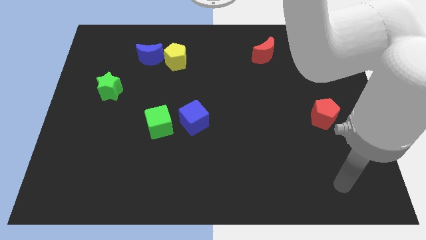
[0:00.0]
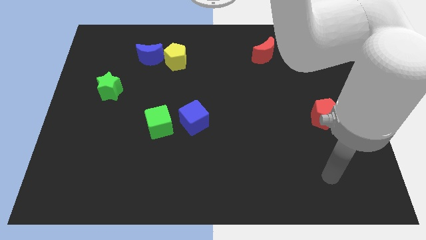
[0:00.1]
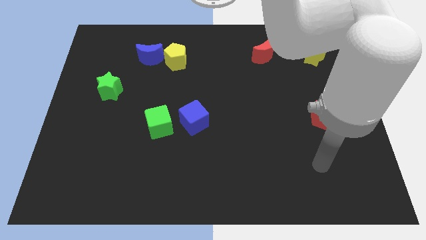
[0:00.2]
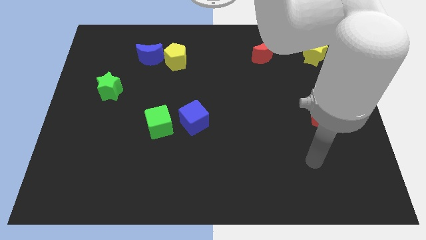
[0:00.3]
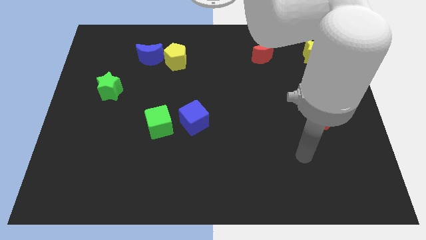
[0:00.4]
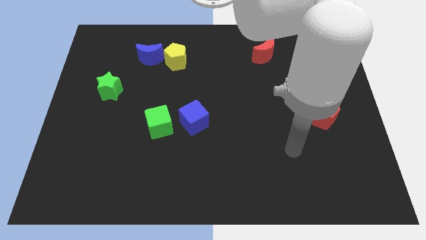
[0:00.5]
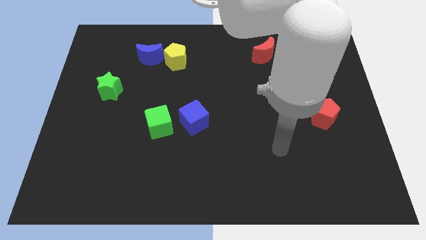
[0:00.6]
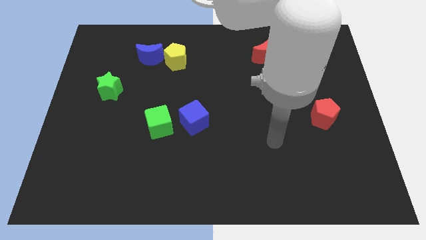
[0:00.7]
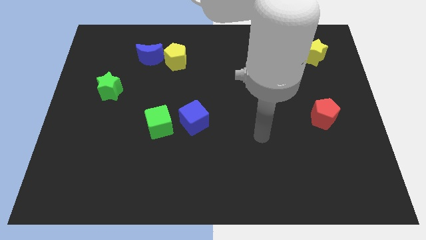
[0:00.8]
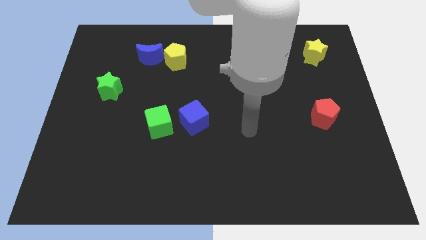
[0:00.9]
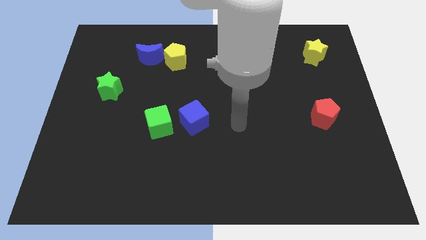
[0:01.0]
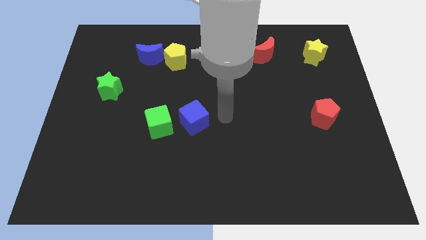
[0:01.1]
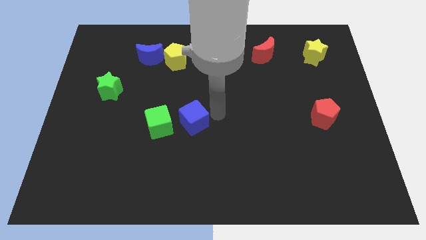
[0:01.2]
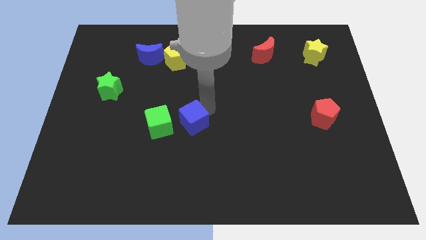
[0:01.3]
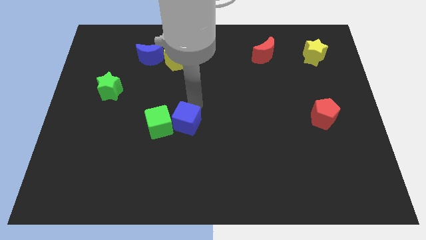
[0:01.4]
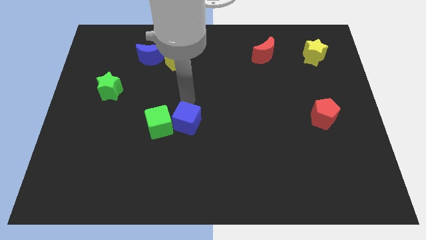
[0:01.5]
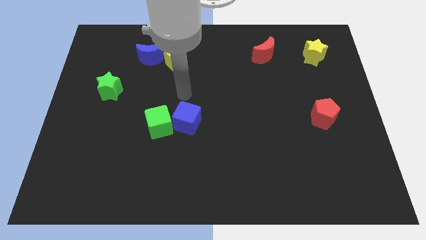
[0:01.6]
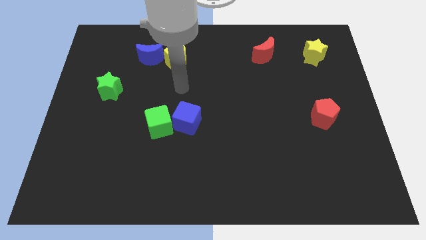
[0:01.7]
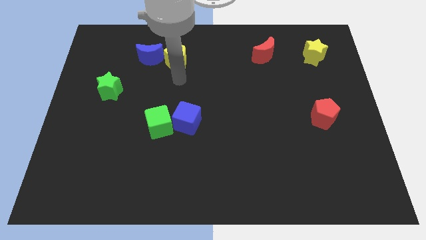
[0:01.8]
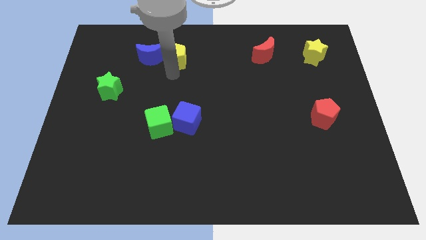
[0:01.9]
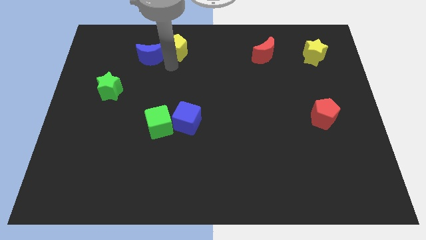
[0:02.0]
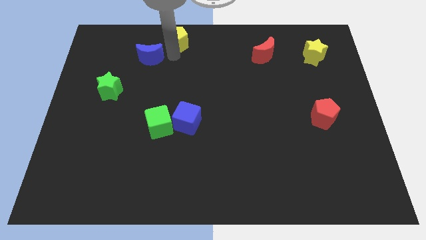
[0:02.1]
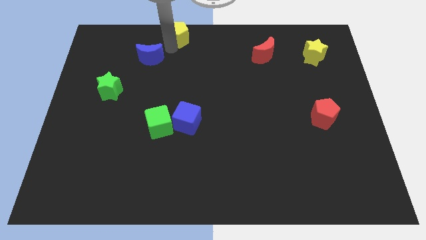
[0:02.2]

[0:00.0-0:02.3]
separate the blue moon from the yellow pentagon

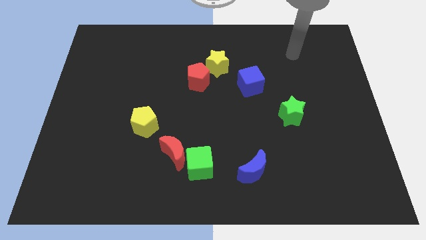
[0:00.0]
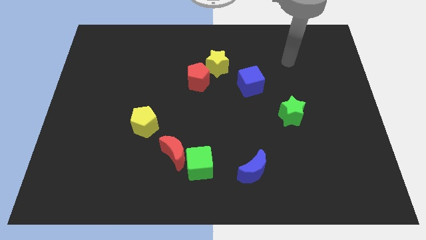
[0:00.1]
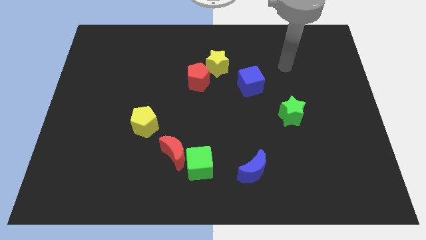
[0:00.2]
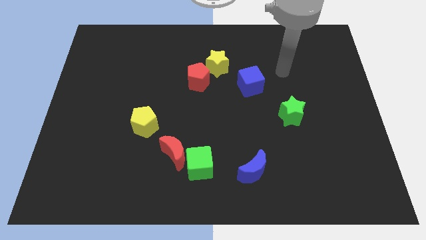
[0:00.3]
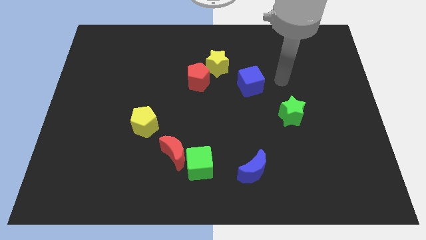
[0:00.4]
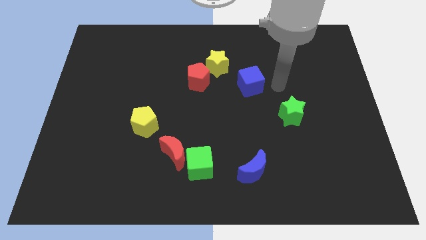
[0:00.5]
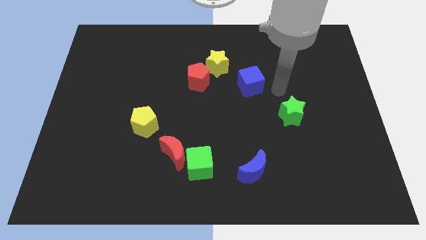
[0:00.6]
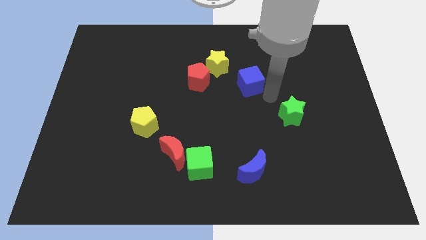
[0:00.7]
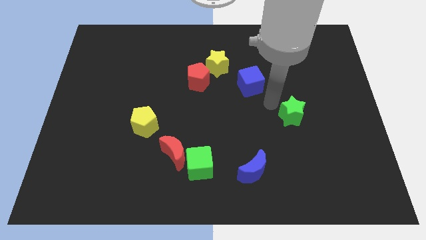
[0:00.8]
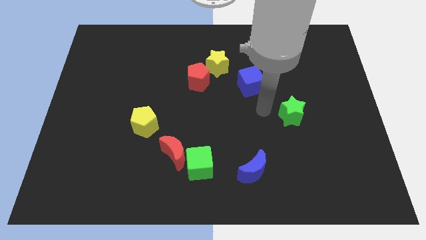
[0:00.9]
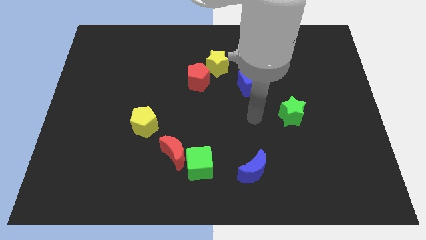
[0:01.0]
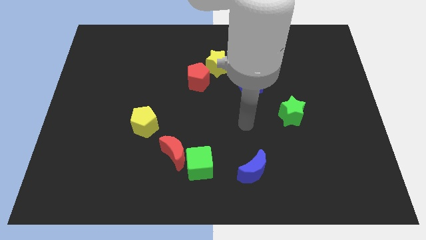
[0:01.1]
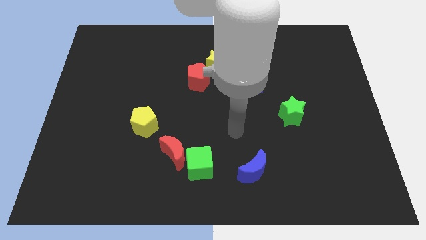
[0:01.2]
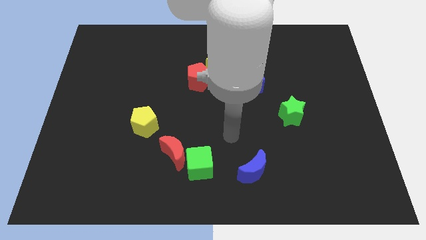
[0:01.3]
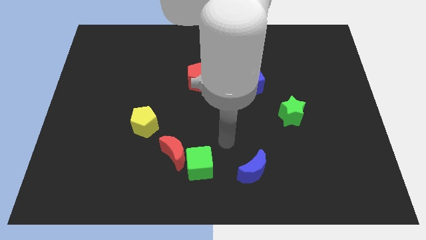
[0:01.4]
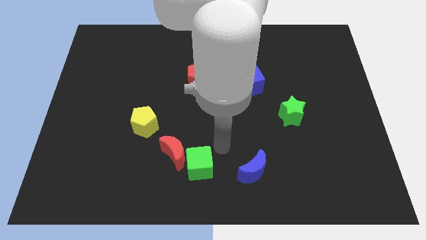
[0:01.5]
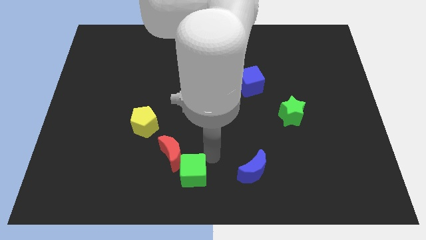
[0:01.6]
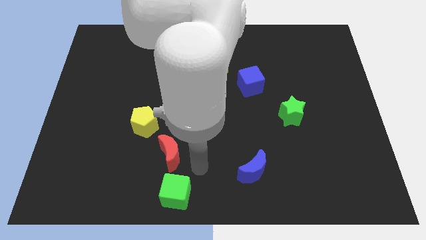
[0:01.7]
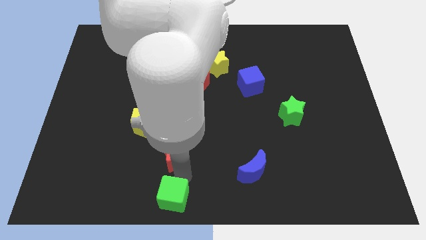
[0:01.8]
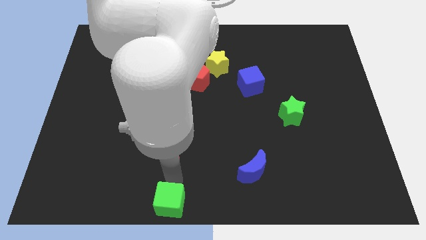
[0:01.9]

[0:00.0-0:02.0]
move the red moon away from the green cube

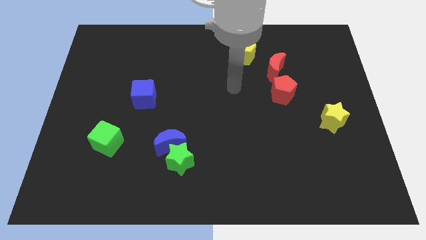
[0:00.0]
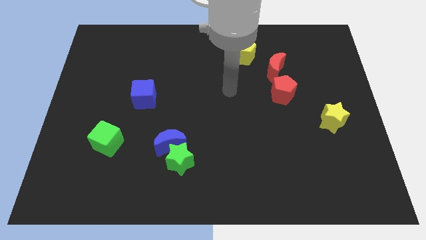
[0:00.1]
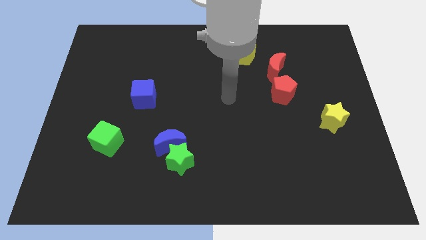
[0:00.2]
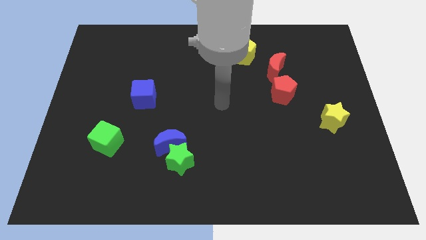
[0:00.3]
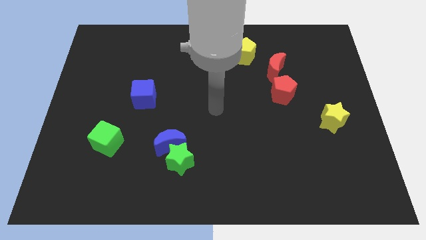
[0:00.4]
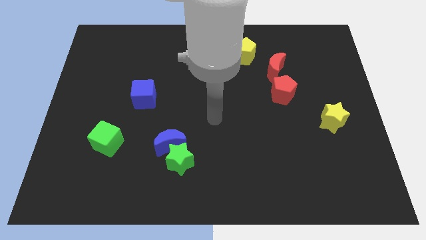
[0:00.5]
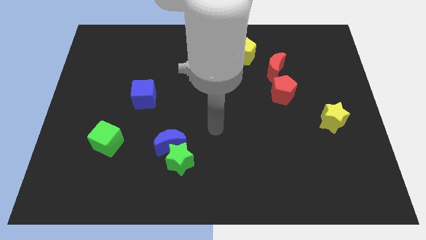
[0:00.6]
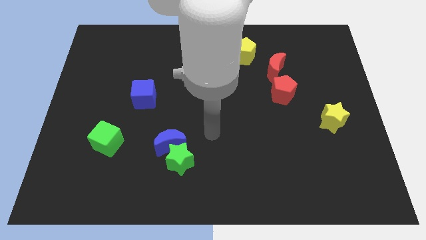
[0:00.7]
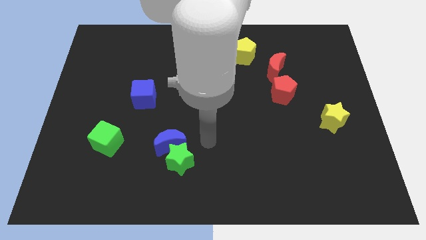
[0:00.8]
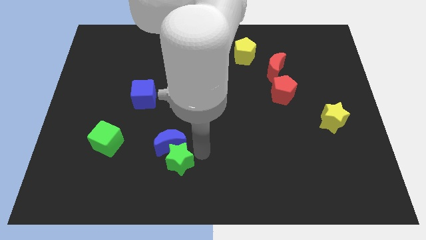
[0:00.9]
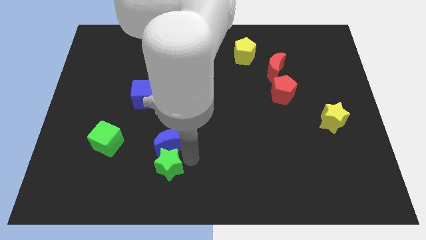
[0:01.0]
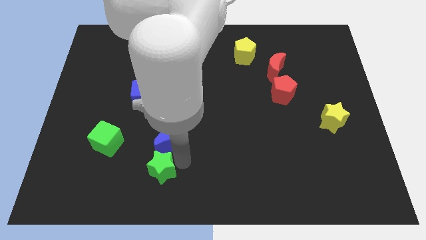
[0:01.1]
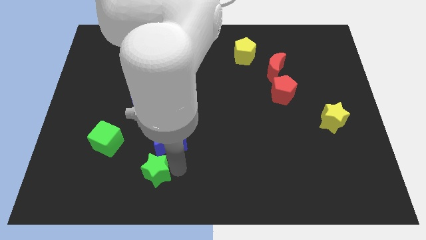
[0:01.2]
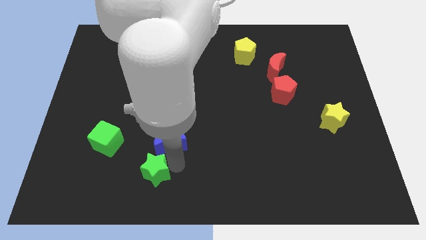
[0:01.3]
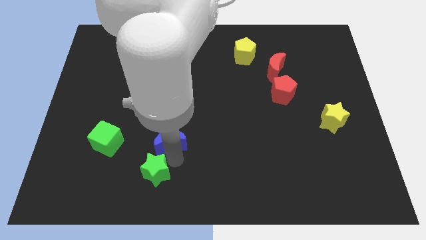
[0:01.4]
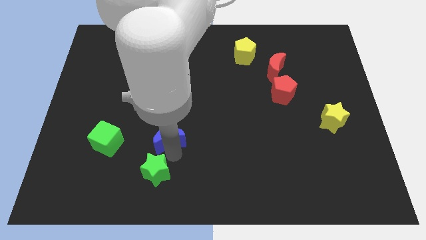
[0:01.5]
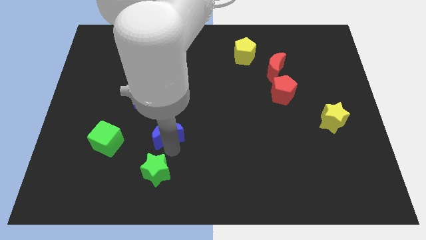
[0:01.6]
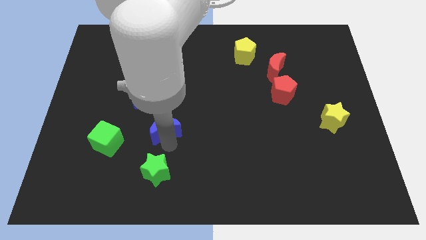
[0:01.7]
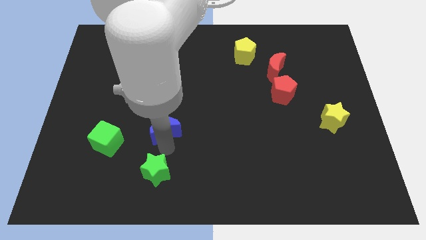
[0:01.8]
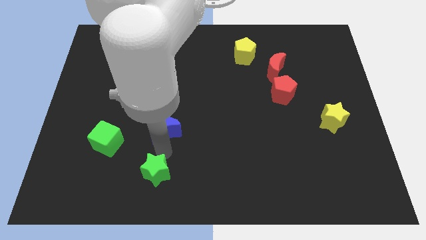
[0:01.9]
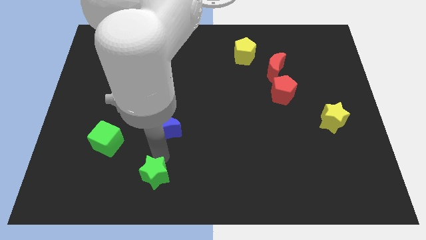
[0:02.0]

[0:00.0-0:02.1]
move the blue moon away from the green star

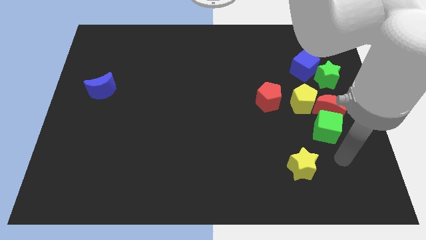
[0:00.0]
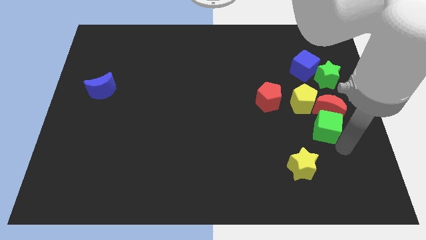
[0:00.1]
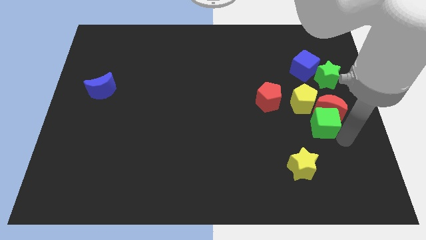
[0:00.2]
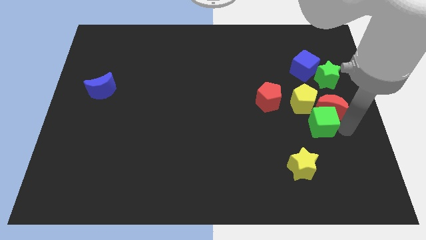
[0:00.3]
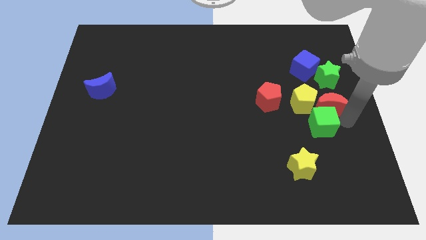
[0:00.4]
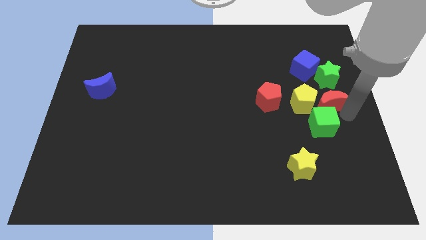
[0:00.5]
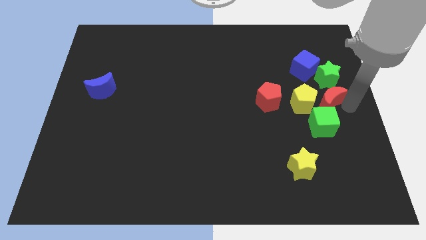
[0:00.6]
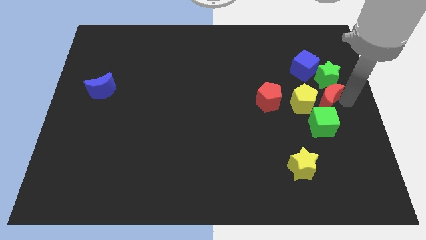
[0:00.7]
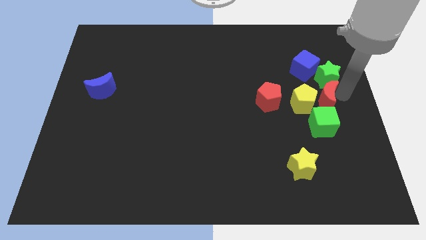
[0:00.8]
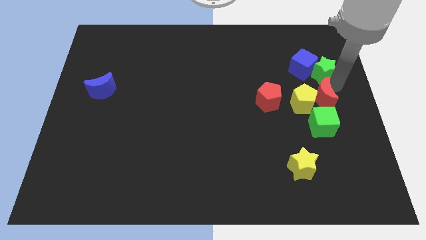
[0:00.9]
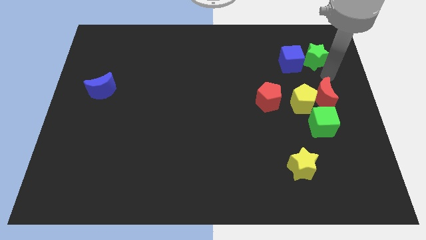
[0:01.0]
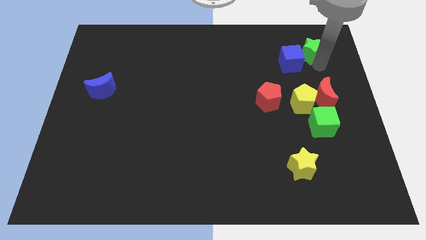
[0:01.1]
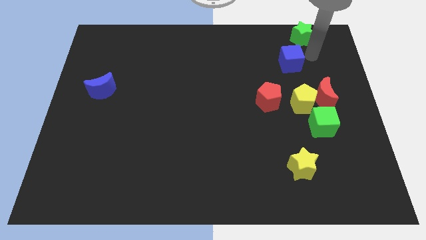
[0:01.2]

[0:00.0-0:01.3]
separate the blue cube from the green star

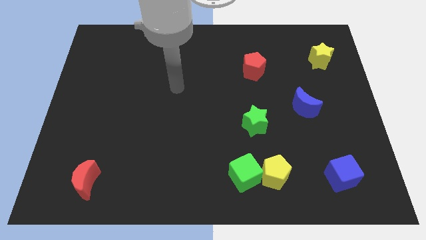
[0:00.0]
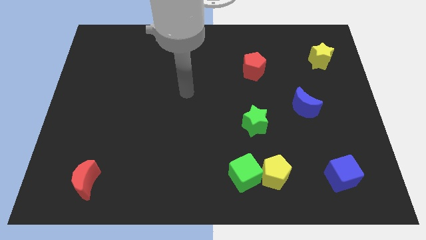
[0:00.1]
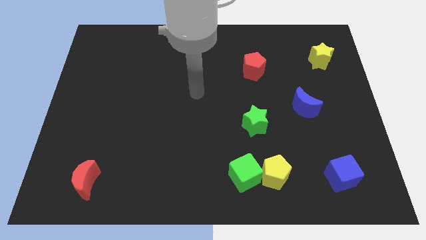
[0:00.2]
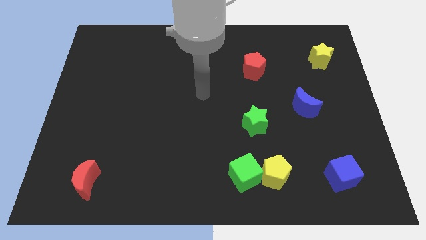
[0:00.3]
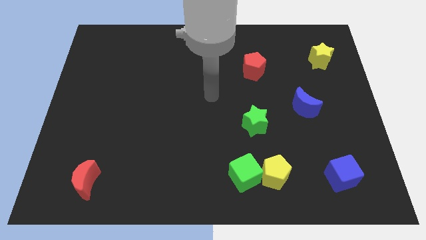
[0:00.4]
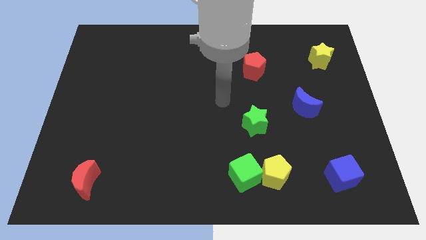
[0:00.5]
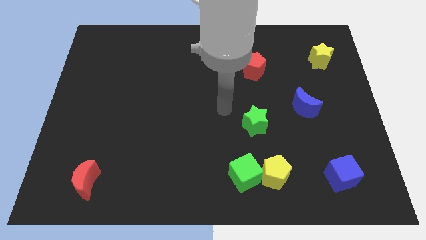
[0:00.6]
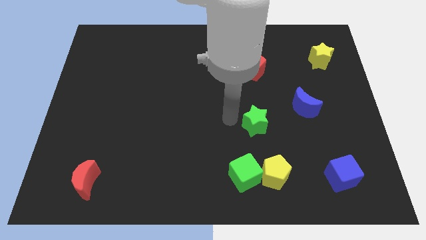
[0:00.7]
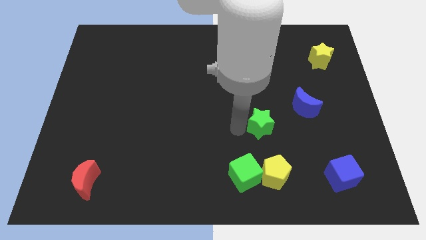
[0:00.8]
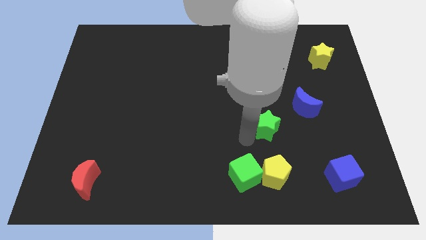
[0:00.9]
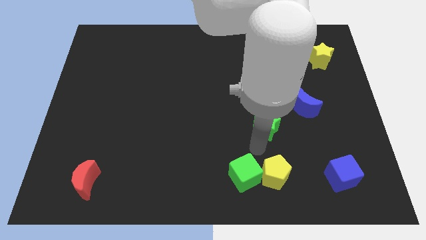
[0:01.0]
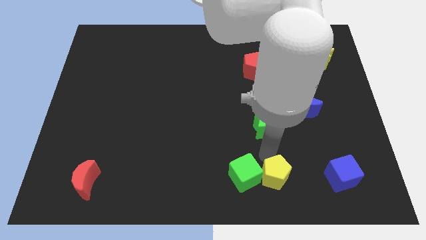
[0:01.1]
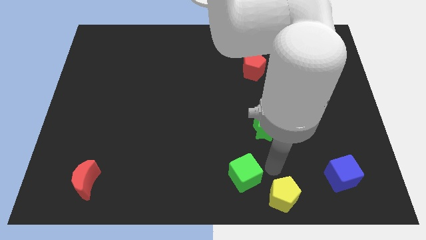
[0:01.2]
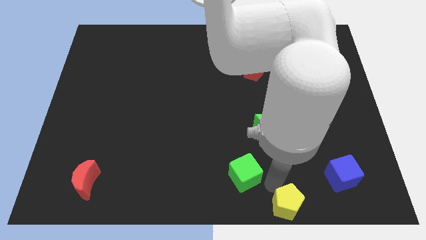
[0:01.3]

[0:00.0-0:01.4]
pull the green cube apart from the yellow pentagon

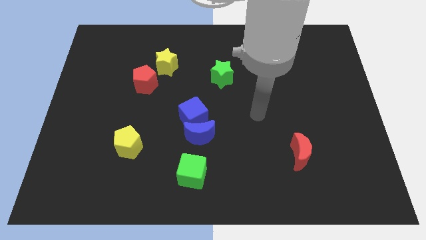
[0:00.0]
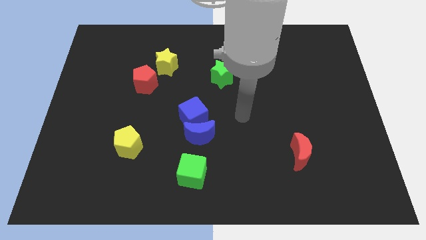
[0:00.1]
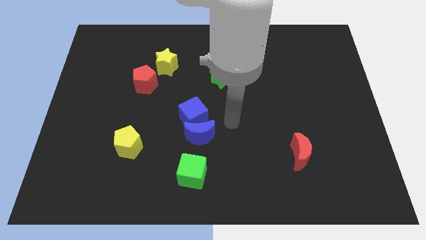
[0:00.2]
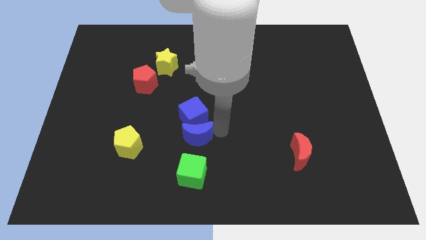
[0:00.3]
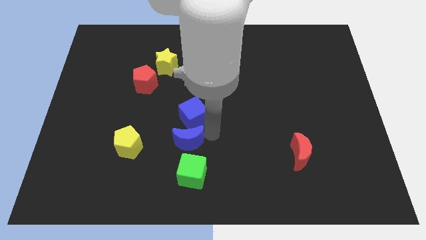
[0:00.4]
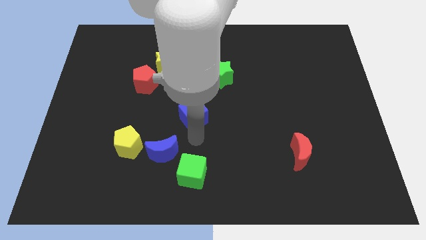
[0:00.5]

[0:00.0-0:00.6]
pull the blue cube apart from the blue moon
